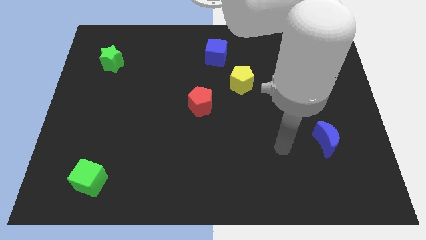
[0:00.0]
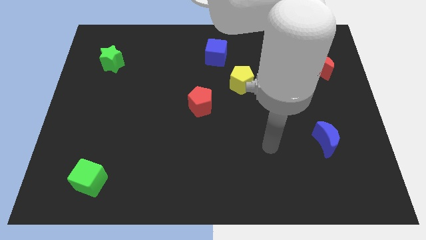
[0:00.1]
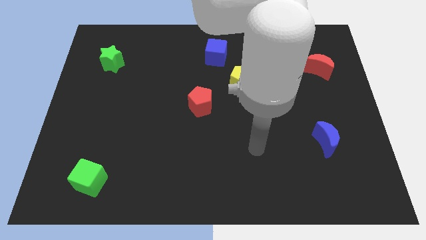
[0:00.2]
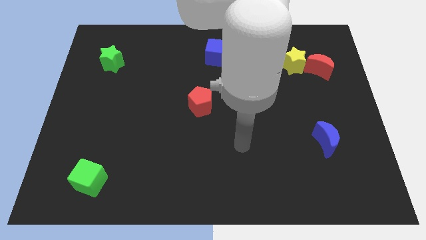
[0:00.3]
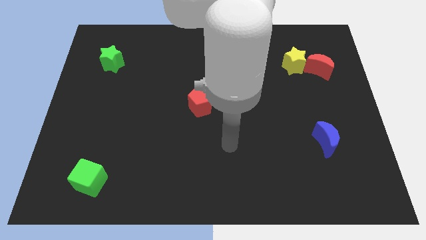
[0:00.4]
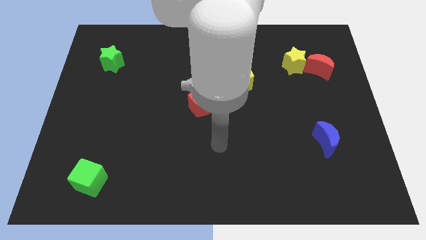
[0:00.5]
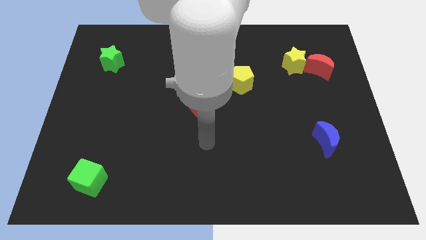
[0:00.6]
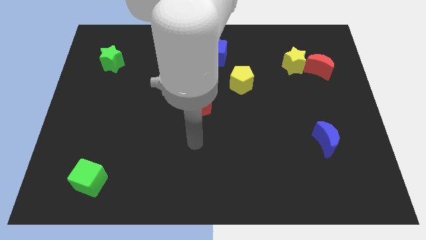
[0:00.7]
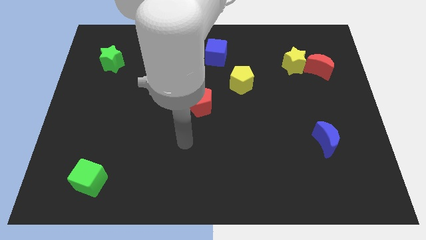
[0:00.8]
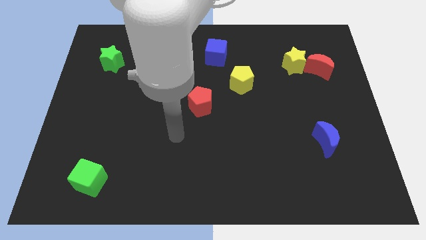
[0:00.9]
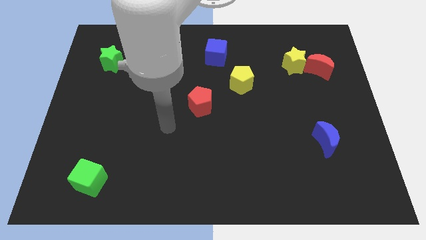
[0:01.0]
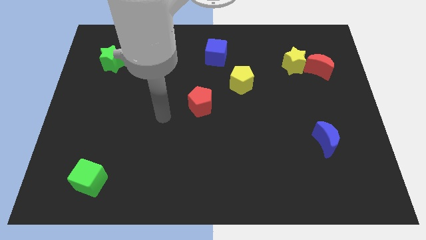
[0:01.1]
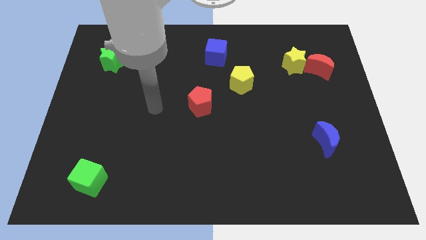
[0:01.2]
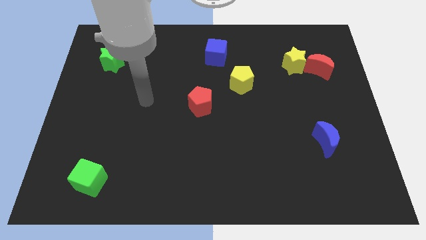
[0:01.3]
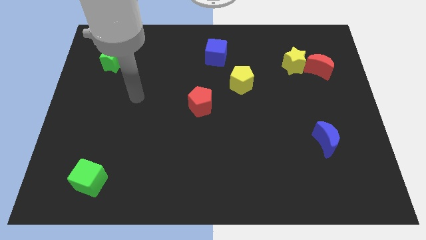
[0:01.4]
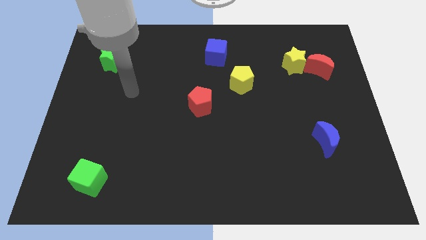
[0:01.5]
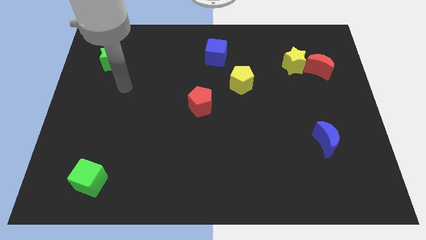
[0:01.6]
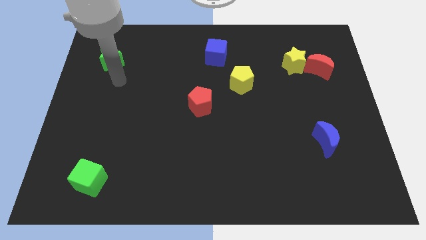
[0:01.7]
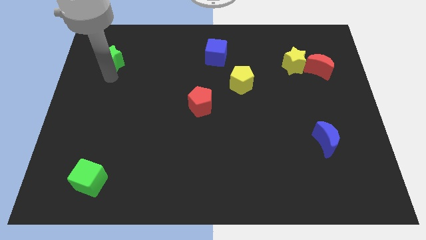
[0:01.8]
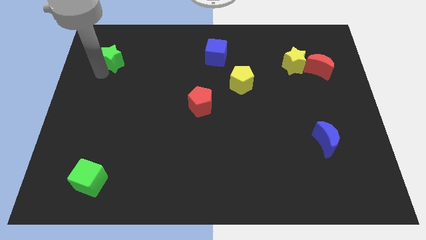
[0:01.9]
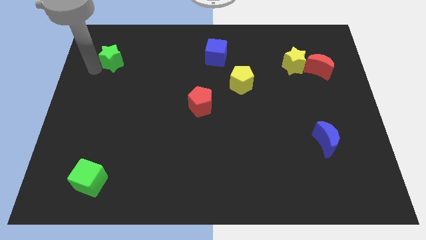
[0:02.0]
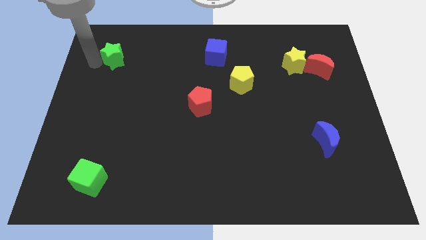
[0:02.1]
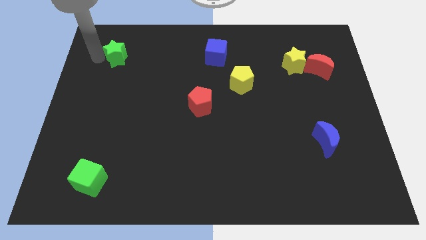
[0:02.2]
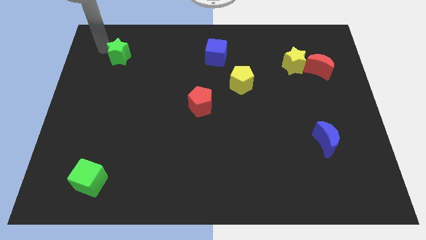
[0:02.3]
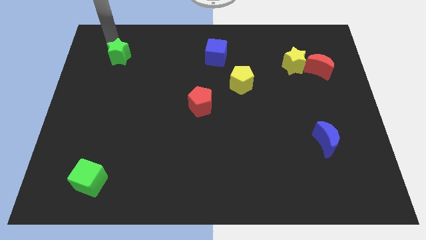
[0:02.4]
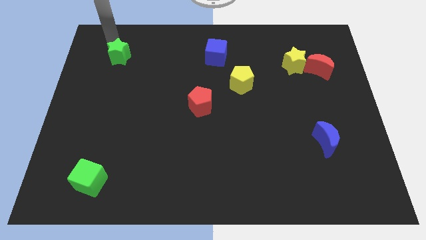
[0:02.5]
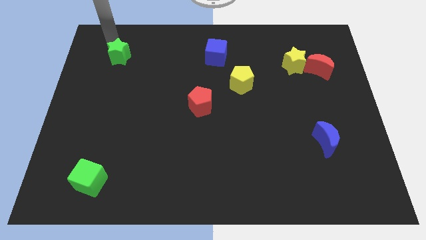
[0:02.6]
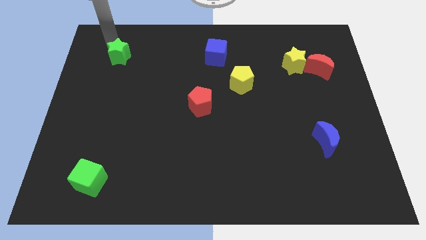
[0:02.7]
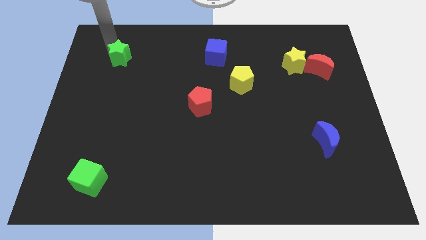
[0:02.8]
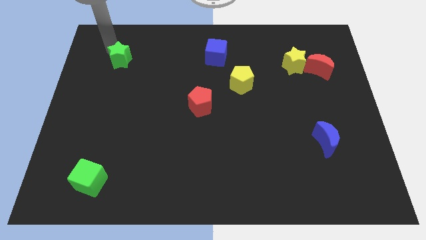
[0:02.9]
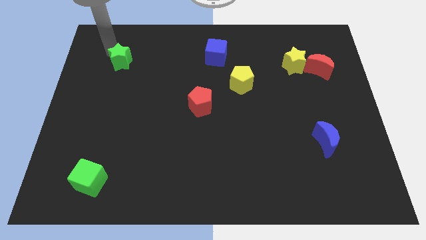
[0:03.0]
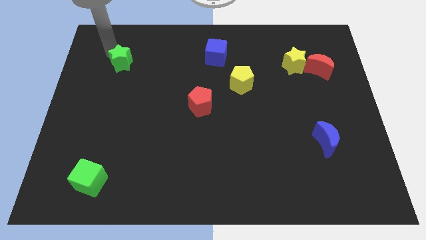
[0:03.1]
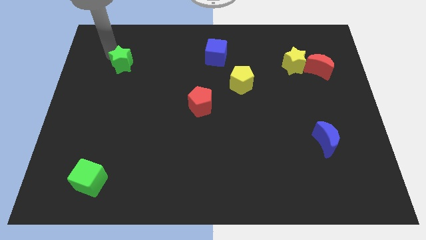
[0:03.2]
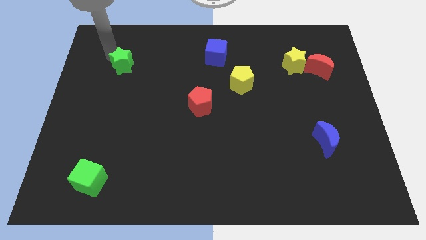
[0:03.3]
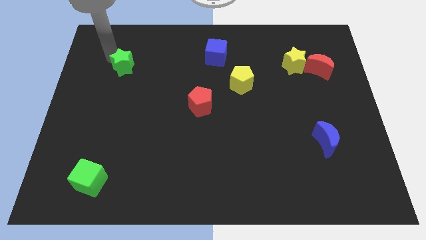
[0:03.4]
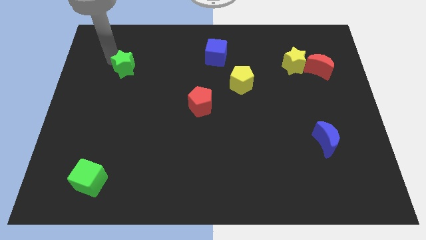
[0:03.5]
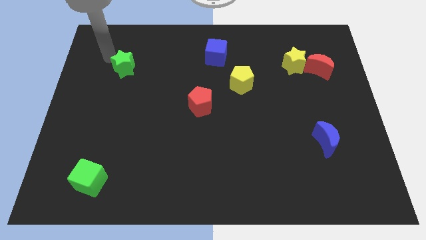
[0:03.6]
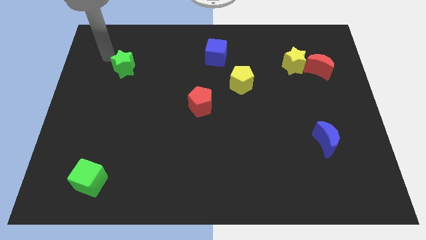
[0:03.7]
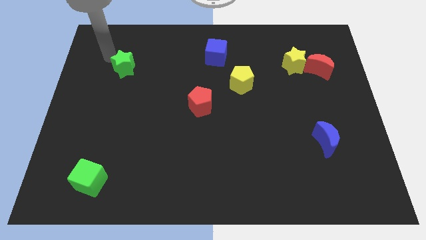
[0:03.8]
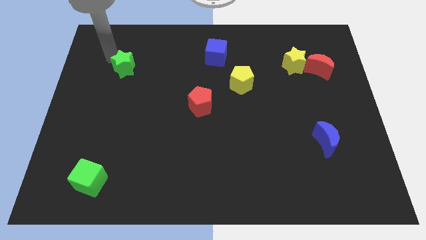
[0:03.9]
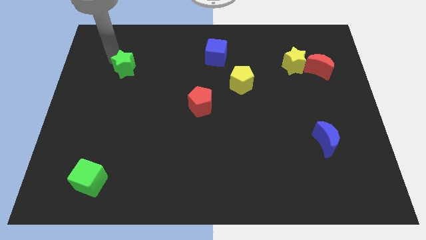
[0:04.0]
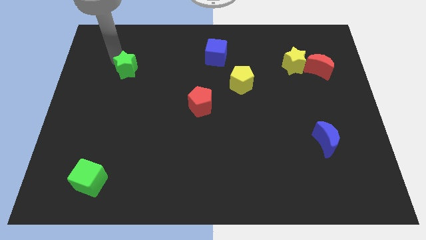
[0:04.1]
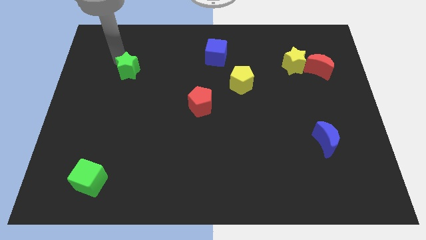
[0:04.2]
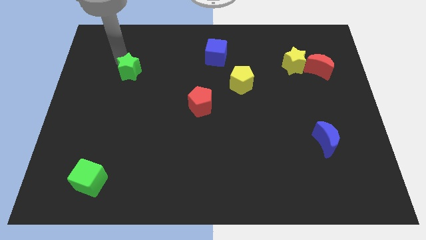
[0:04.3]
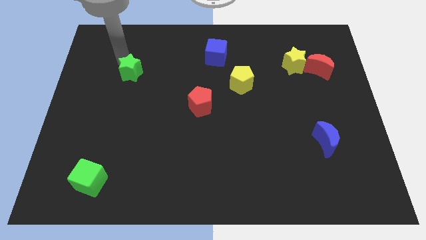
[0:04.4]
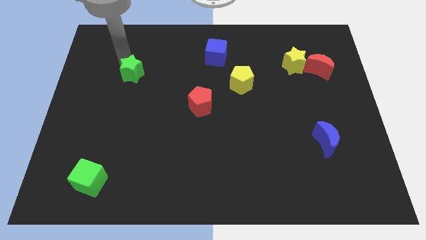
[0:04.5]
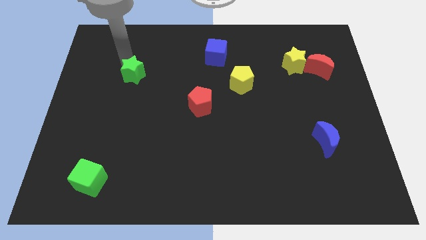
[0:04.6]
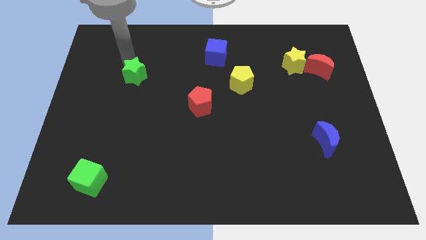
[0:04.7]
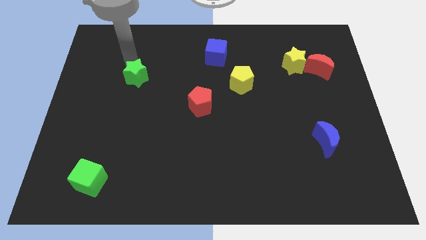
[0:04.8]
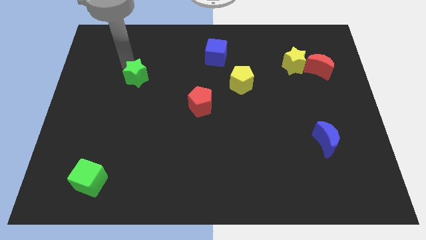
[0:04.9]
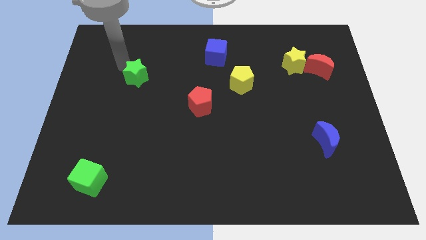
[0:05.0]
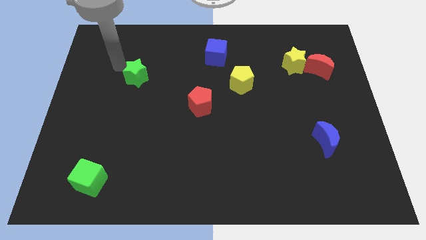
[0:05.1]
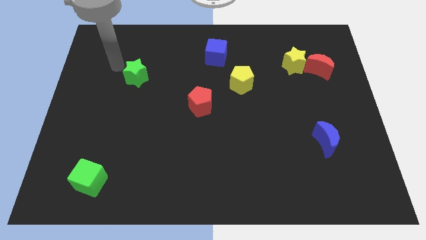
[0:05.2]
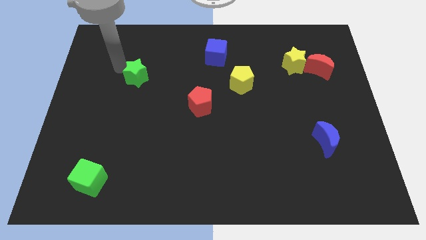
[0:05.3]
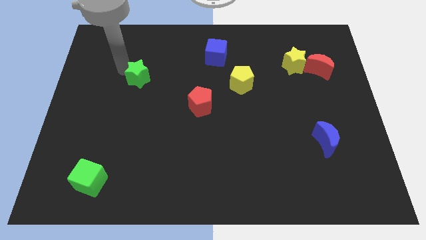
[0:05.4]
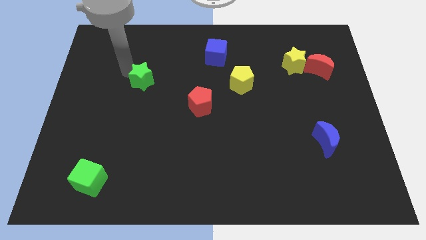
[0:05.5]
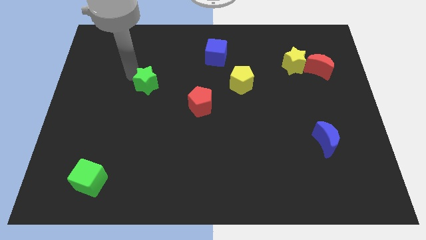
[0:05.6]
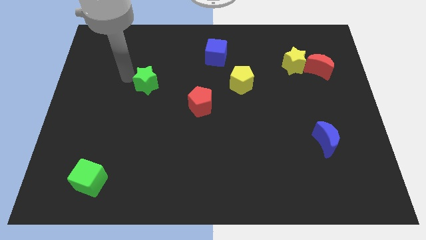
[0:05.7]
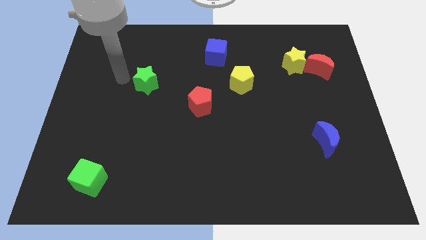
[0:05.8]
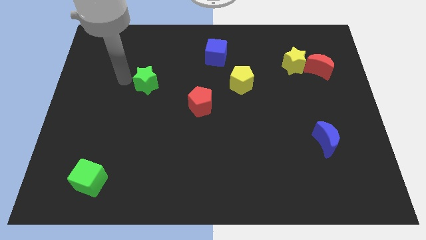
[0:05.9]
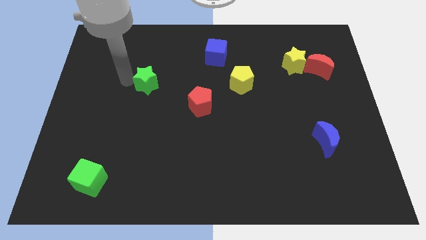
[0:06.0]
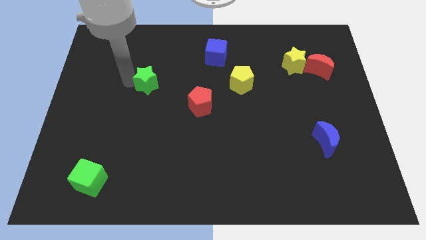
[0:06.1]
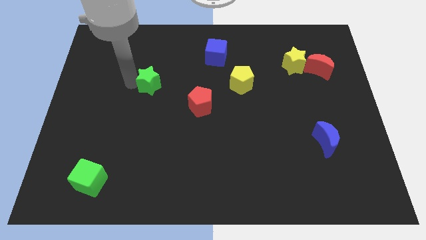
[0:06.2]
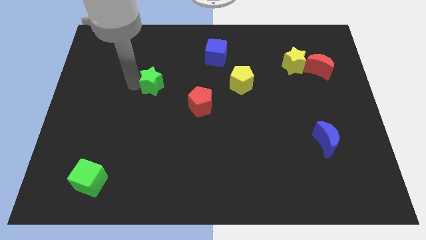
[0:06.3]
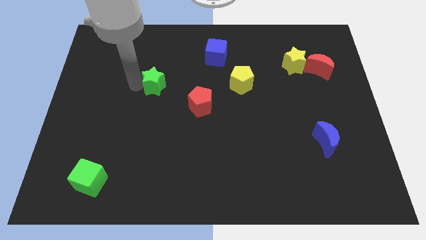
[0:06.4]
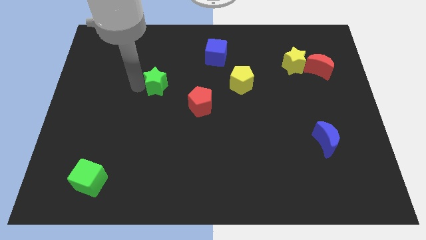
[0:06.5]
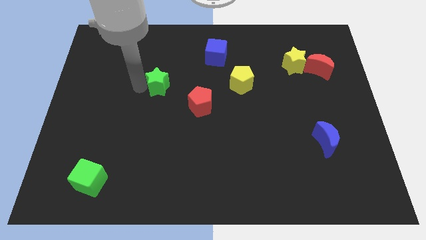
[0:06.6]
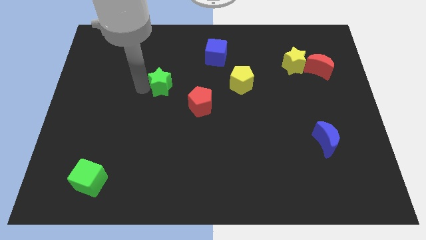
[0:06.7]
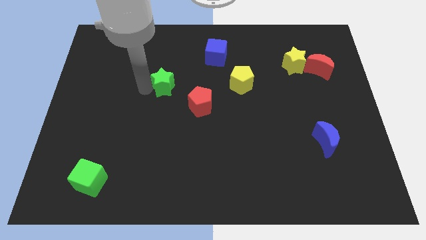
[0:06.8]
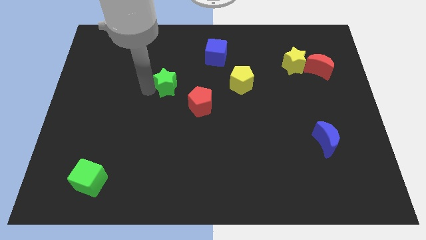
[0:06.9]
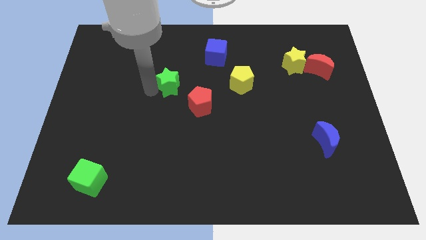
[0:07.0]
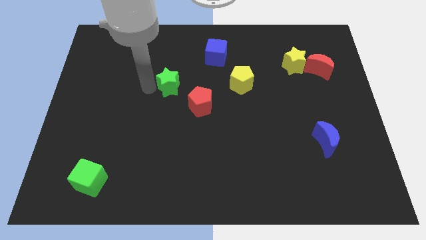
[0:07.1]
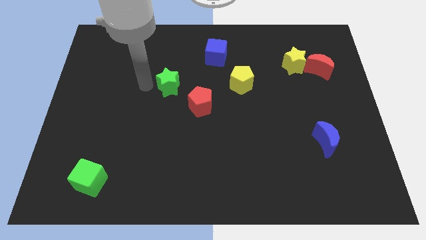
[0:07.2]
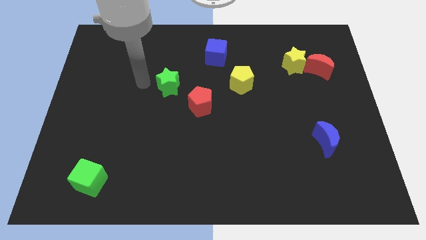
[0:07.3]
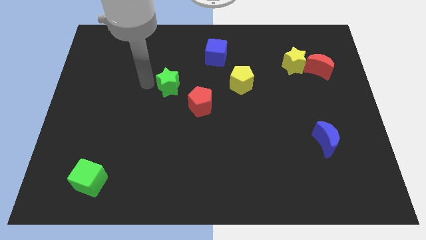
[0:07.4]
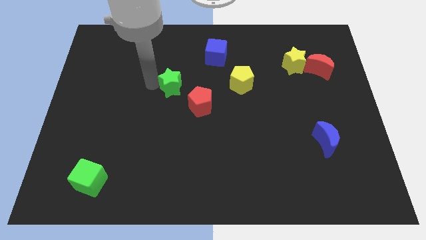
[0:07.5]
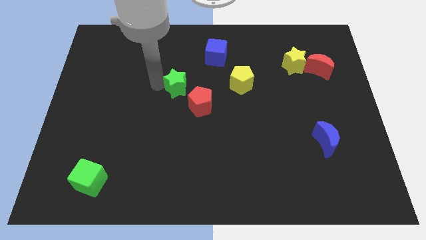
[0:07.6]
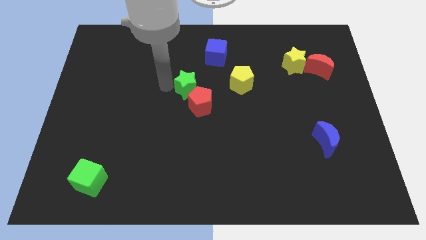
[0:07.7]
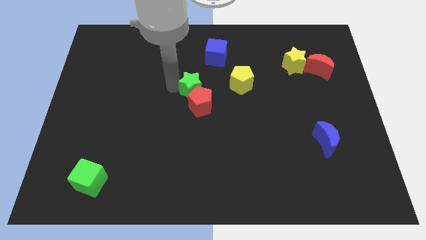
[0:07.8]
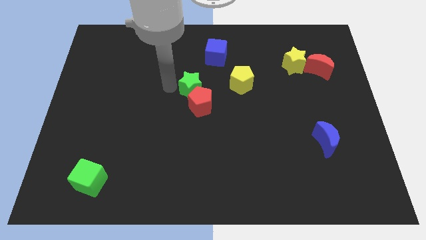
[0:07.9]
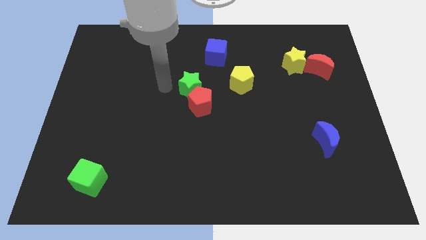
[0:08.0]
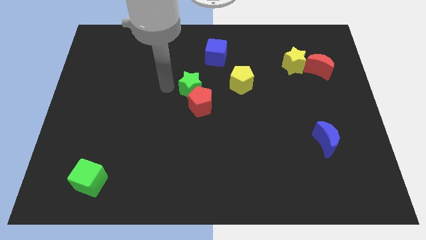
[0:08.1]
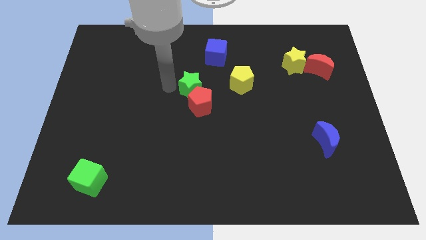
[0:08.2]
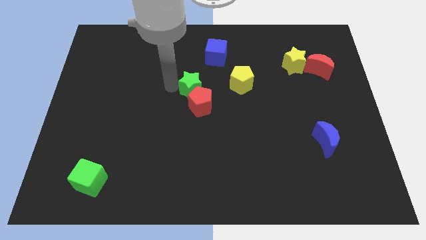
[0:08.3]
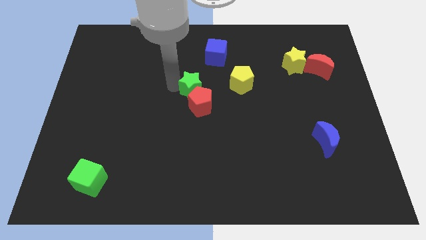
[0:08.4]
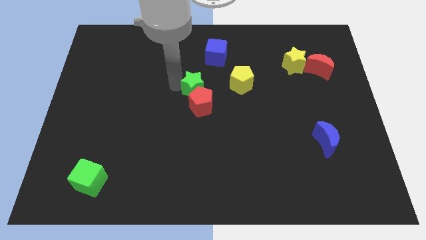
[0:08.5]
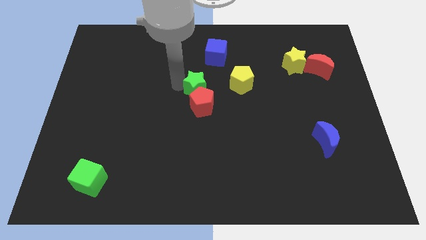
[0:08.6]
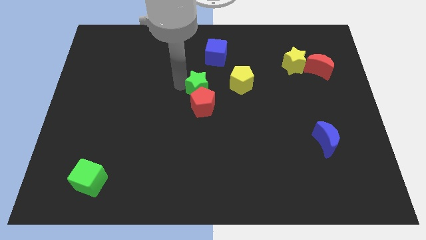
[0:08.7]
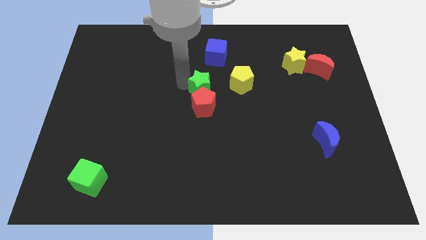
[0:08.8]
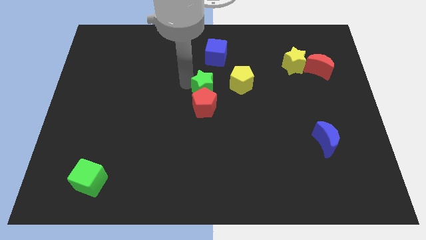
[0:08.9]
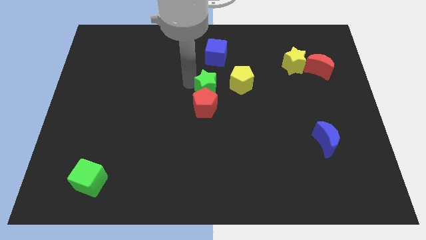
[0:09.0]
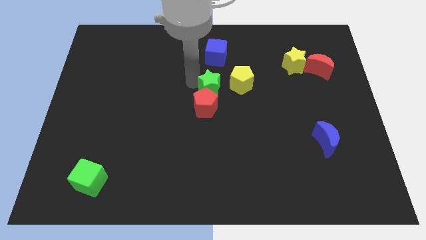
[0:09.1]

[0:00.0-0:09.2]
move the green star to the bottom left of the yellow pentagon
